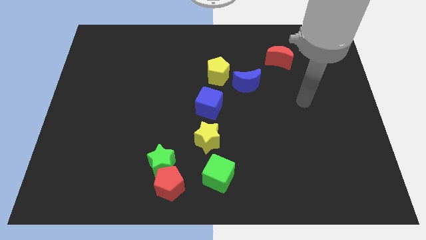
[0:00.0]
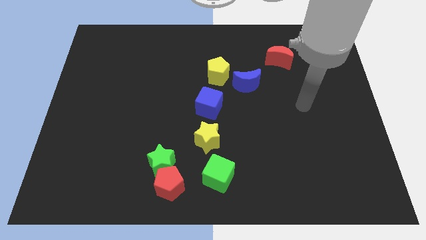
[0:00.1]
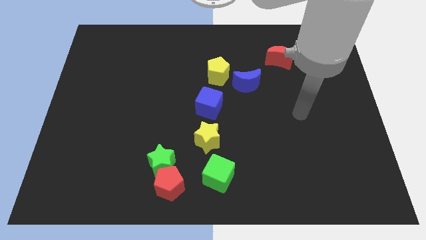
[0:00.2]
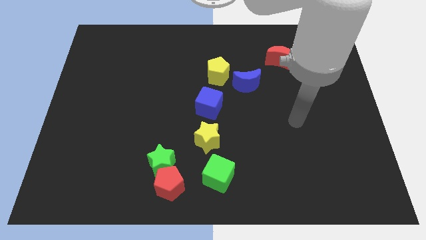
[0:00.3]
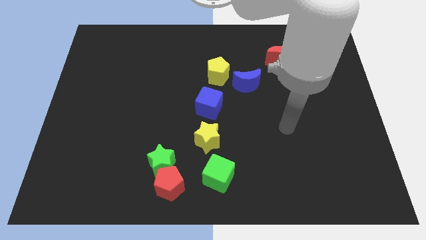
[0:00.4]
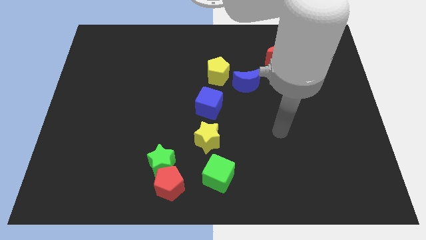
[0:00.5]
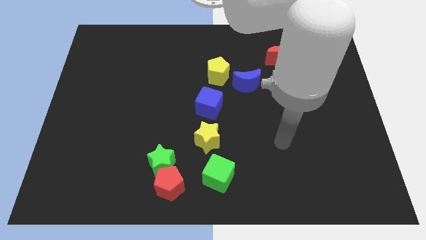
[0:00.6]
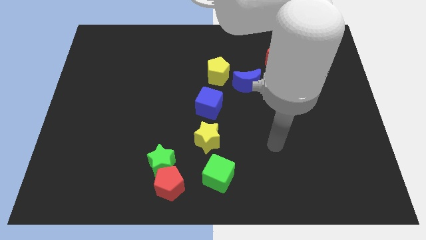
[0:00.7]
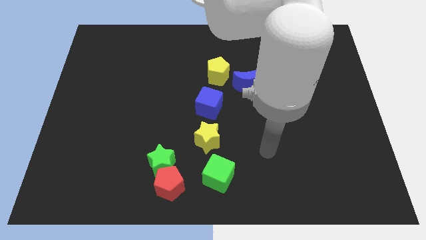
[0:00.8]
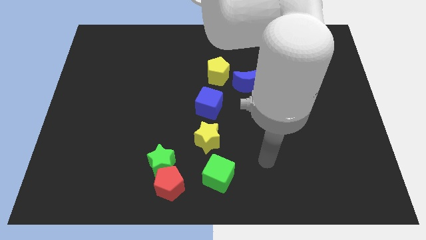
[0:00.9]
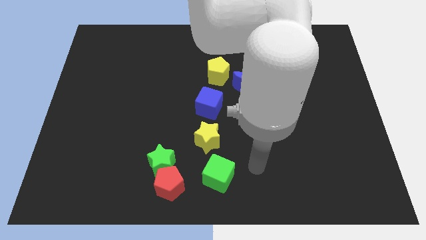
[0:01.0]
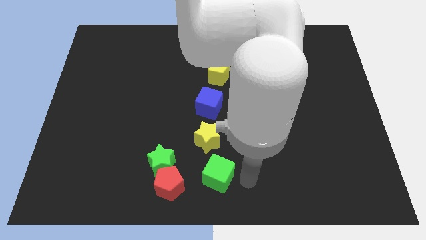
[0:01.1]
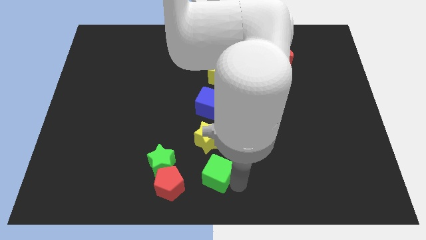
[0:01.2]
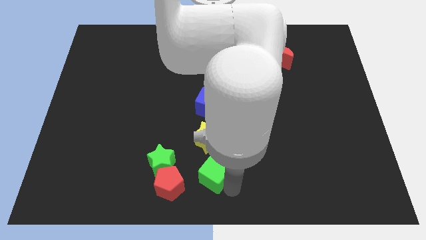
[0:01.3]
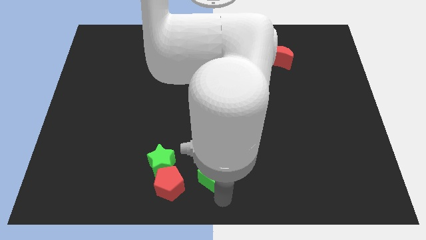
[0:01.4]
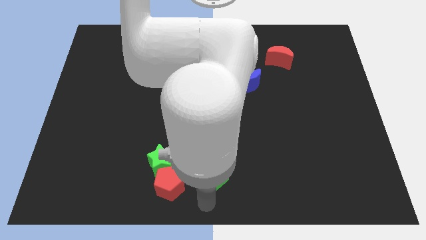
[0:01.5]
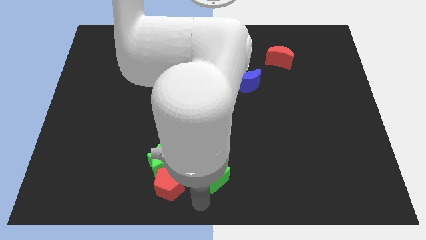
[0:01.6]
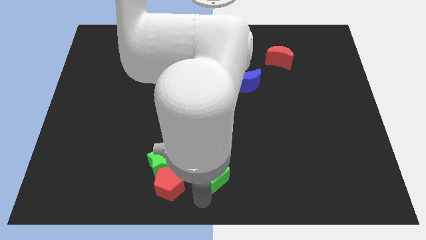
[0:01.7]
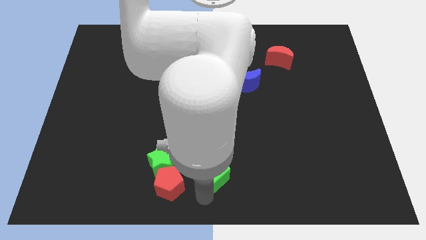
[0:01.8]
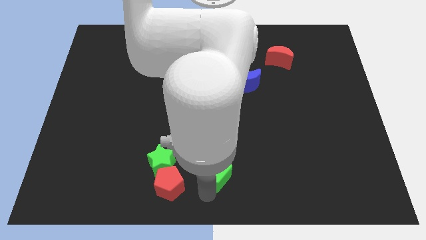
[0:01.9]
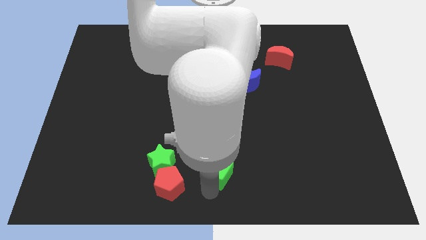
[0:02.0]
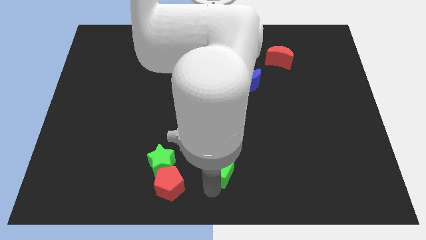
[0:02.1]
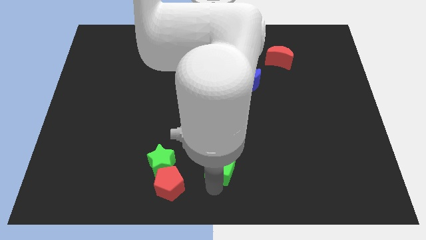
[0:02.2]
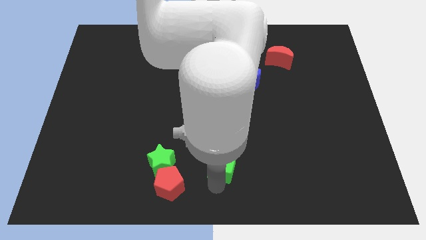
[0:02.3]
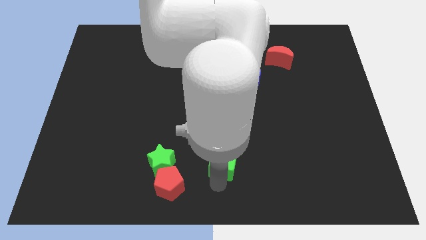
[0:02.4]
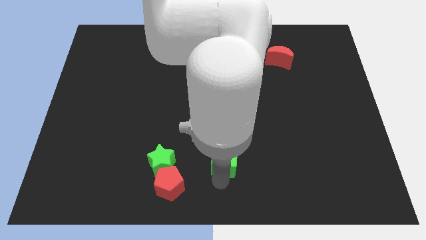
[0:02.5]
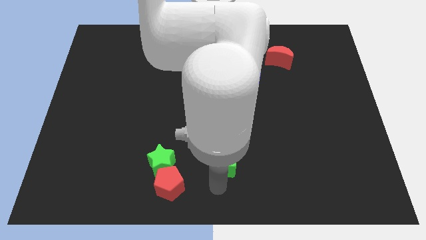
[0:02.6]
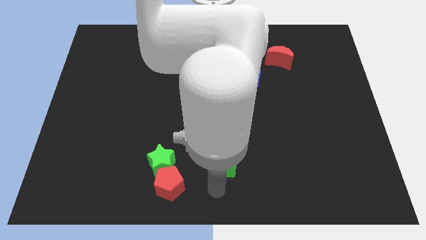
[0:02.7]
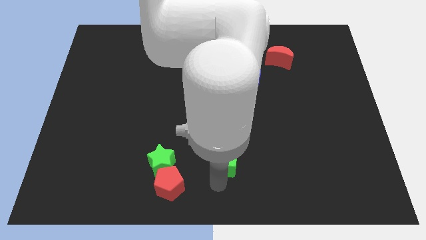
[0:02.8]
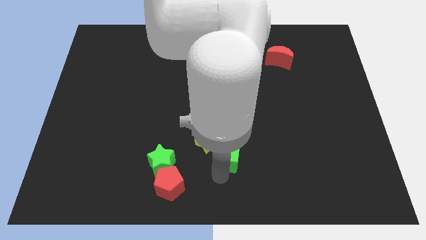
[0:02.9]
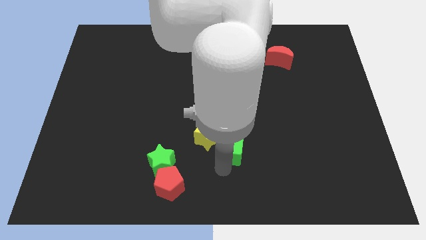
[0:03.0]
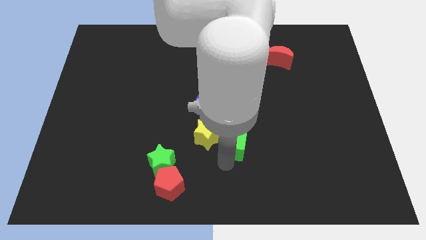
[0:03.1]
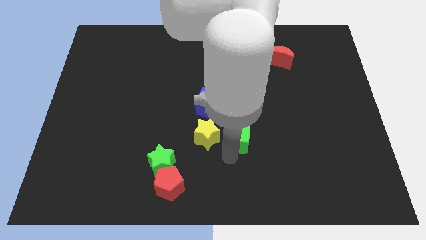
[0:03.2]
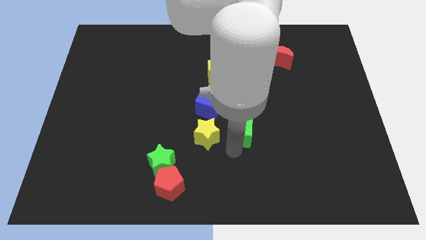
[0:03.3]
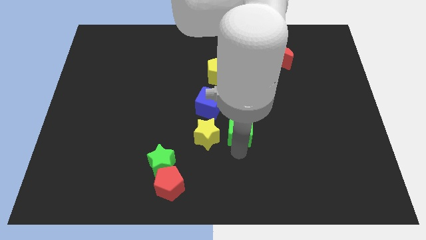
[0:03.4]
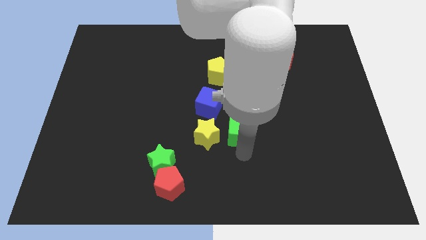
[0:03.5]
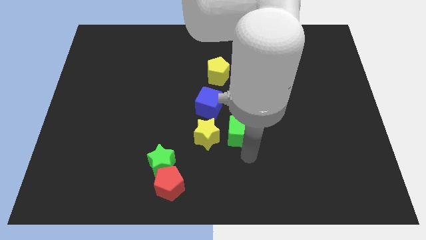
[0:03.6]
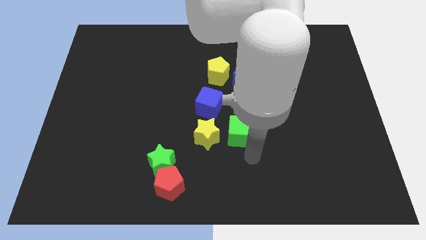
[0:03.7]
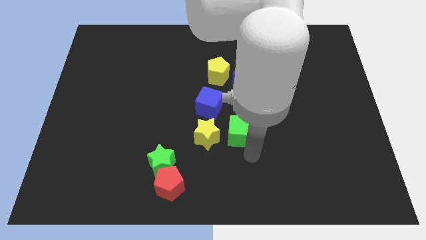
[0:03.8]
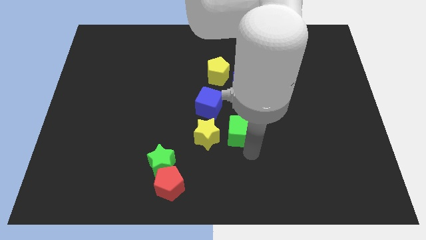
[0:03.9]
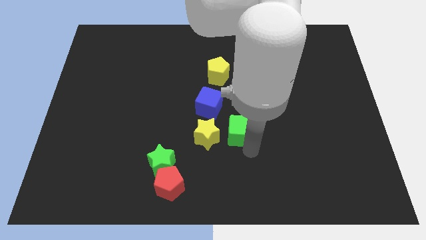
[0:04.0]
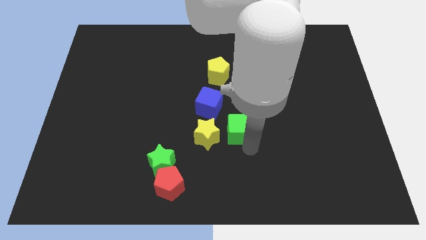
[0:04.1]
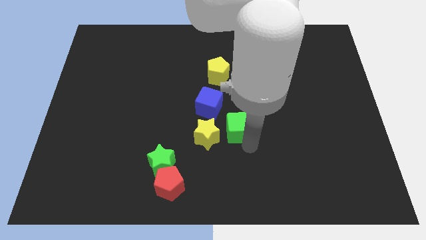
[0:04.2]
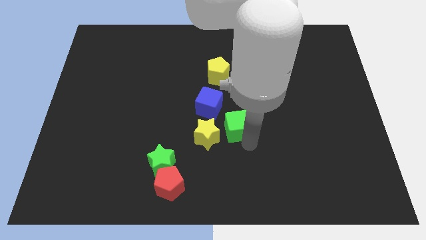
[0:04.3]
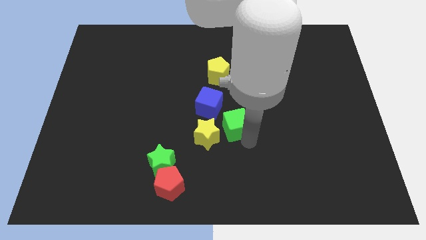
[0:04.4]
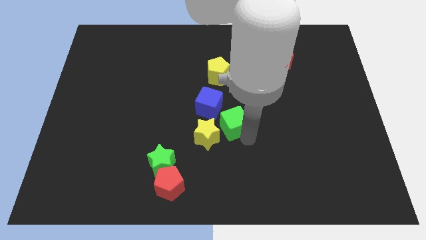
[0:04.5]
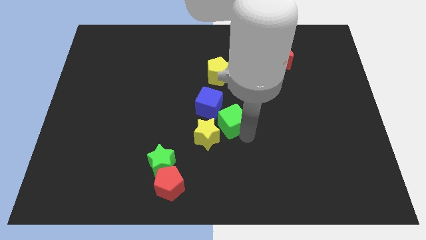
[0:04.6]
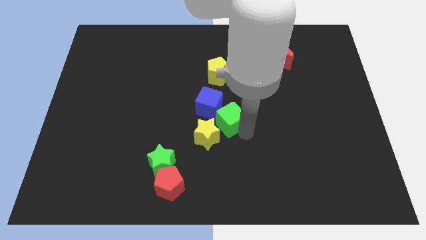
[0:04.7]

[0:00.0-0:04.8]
move the green cube to the right side of the blue cube

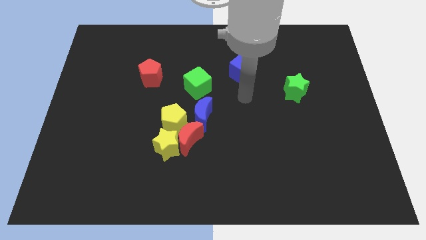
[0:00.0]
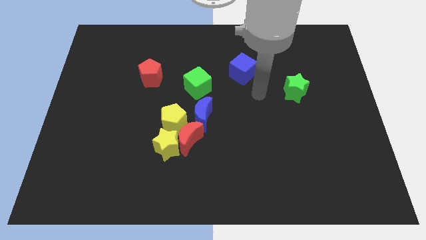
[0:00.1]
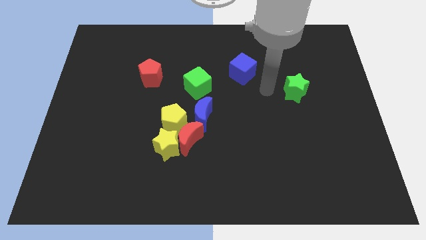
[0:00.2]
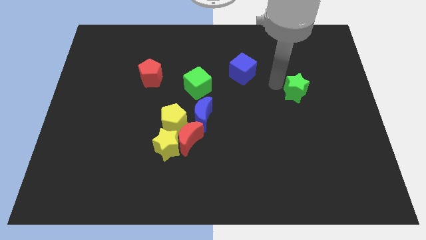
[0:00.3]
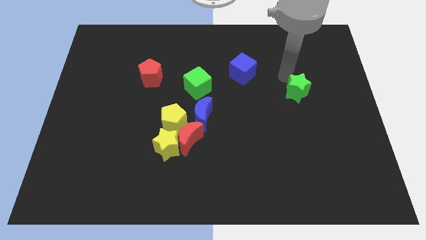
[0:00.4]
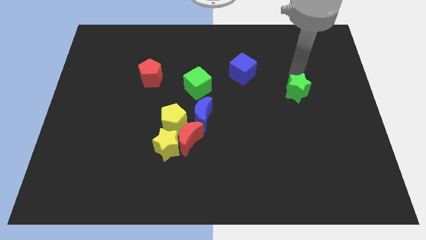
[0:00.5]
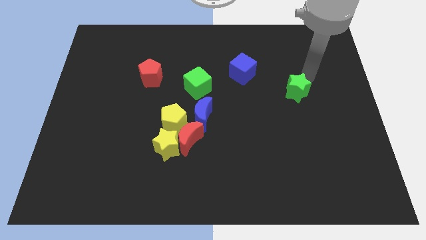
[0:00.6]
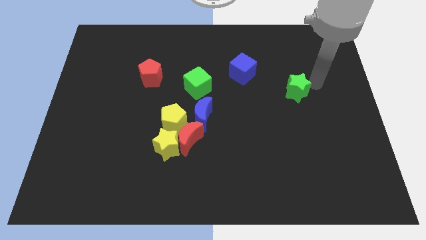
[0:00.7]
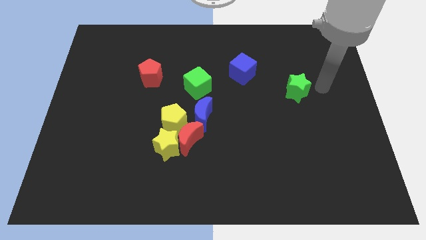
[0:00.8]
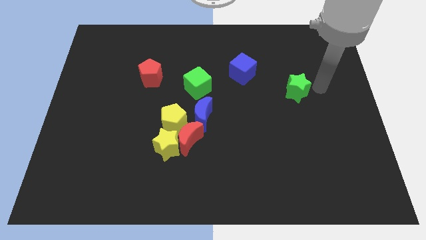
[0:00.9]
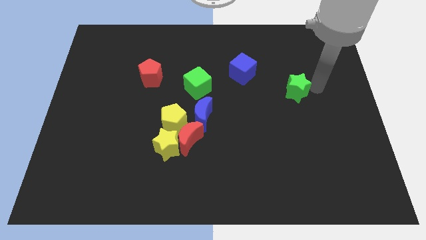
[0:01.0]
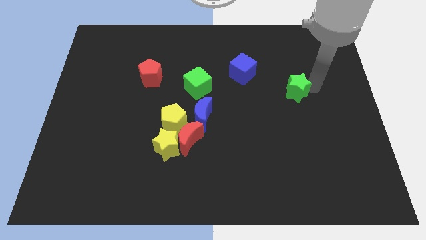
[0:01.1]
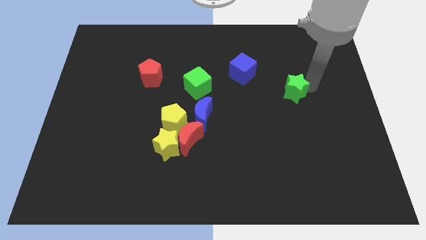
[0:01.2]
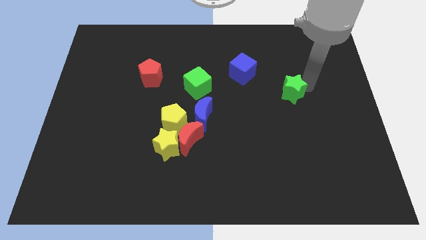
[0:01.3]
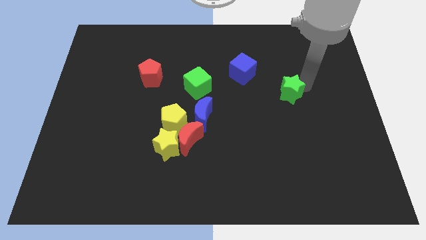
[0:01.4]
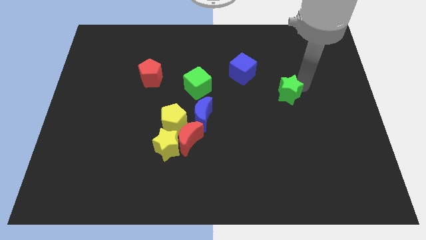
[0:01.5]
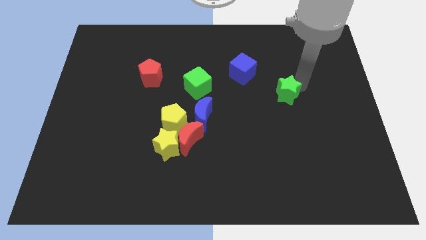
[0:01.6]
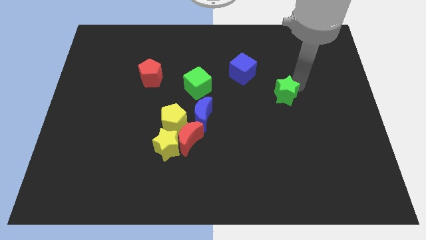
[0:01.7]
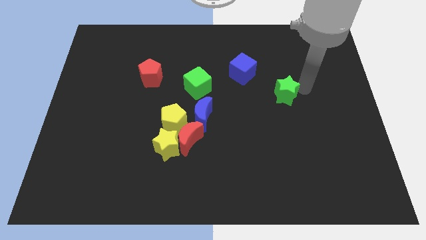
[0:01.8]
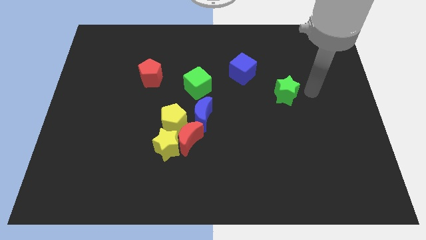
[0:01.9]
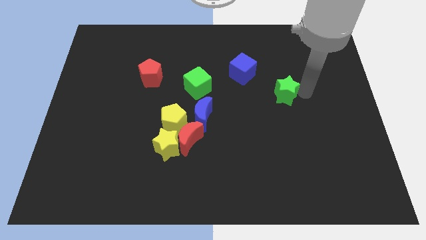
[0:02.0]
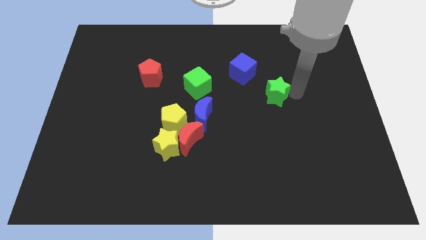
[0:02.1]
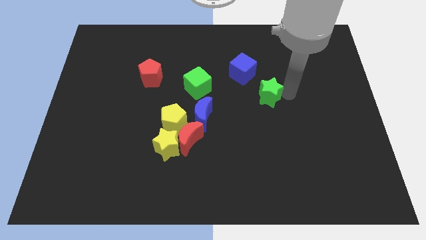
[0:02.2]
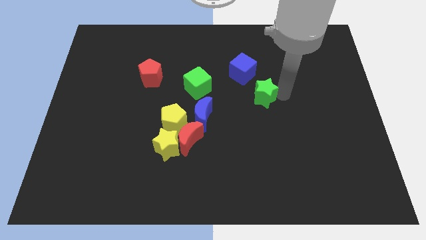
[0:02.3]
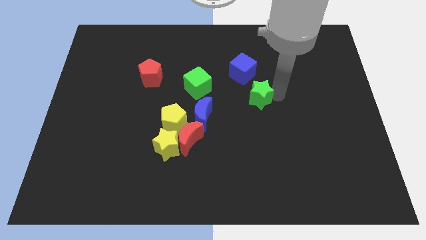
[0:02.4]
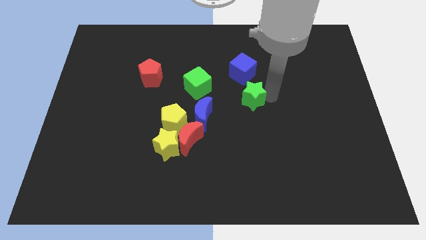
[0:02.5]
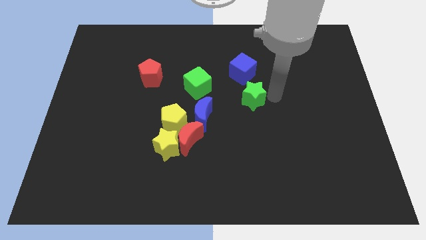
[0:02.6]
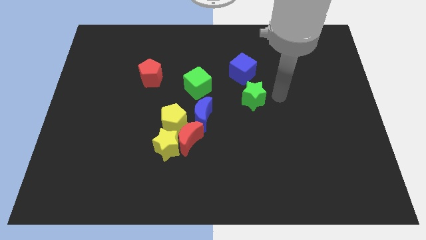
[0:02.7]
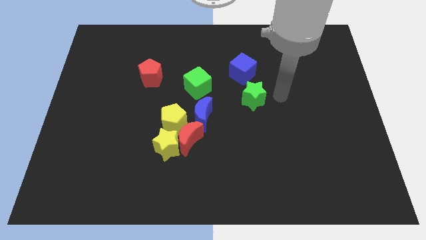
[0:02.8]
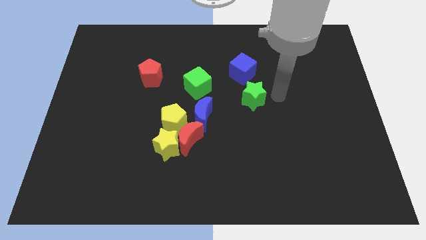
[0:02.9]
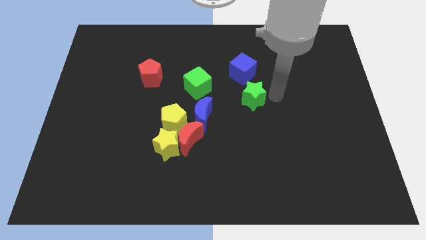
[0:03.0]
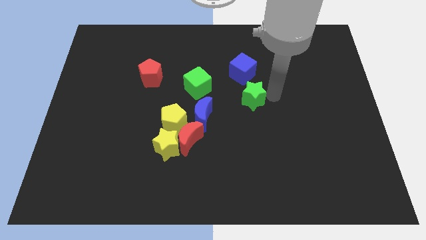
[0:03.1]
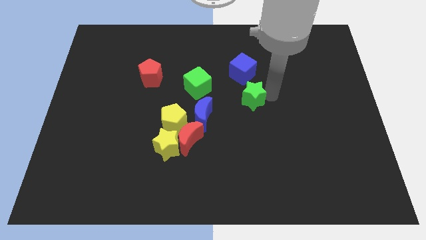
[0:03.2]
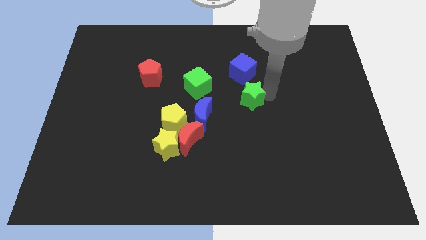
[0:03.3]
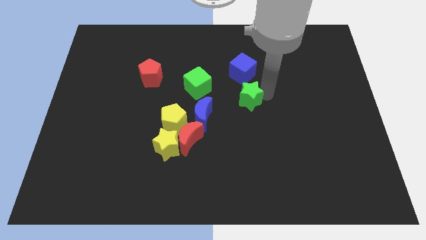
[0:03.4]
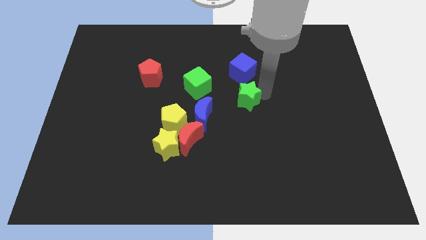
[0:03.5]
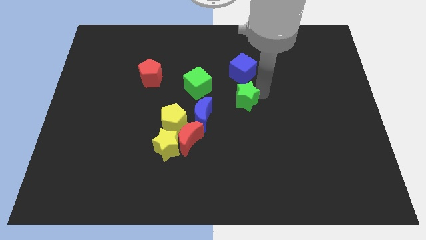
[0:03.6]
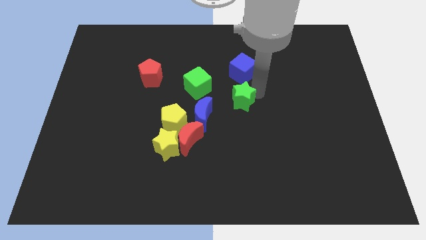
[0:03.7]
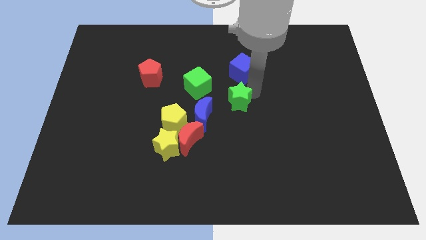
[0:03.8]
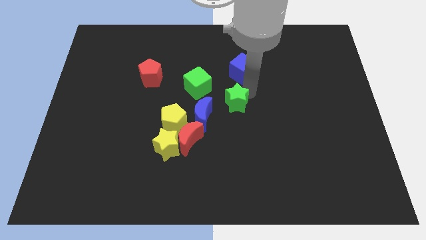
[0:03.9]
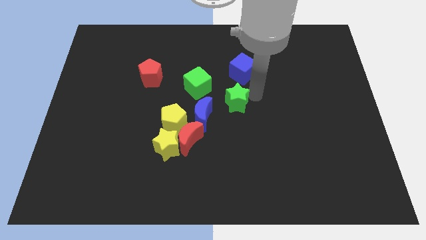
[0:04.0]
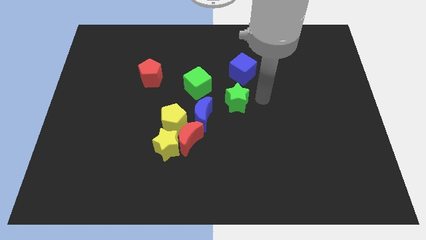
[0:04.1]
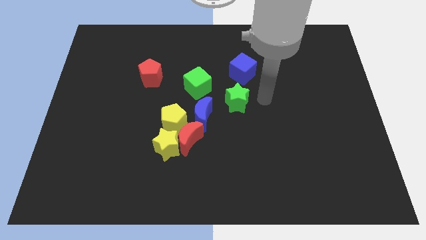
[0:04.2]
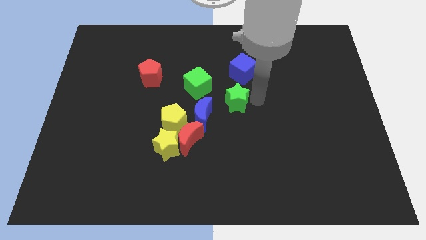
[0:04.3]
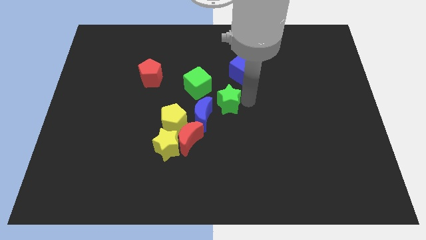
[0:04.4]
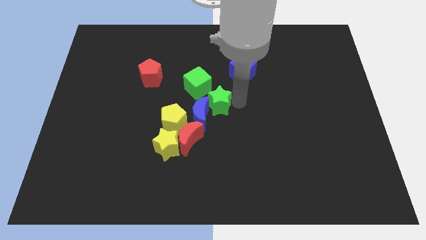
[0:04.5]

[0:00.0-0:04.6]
put the green star to the top right side of the yellow pentagon
